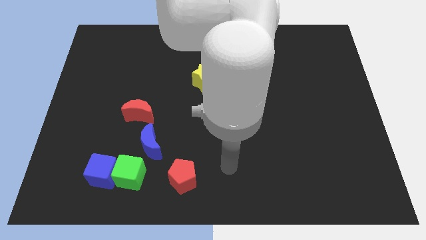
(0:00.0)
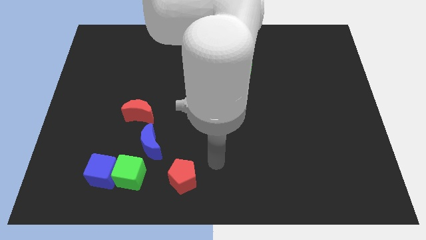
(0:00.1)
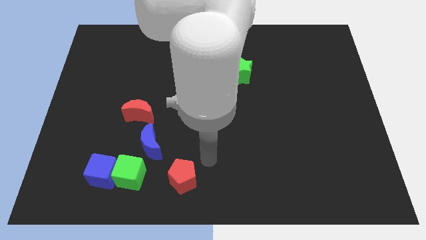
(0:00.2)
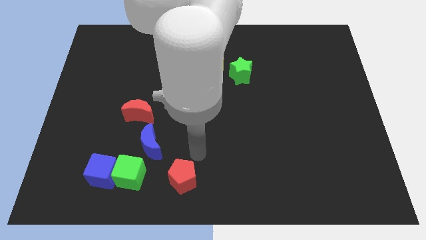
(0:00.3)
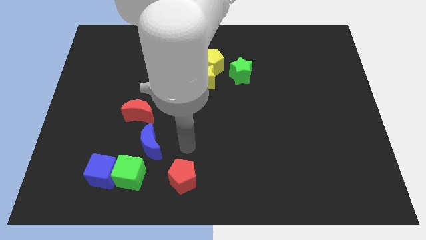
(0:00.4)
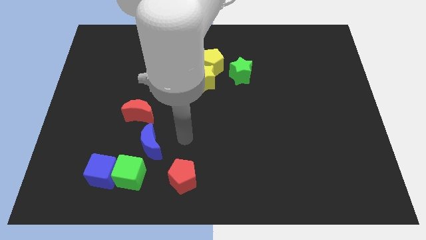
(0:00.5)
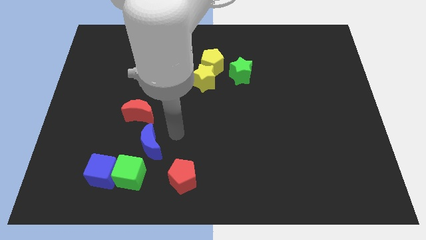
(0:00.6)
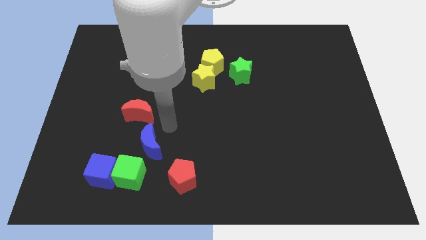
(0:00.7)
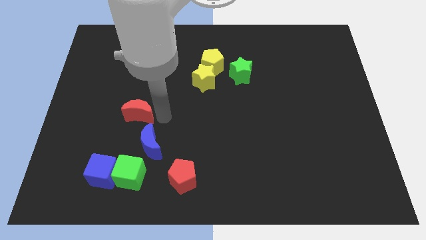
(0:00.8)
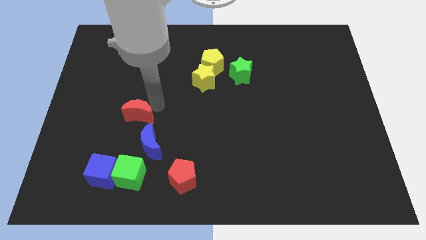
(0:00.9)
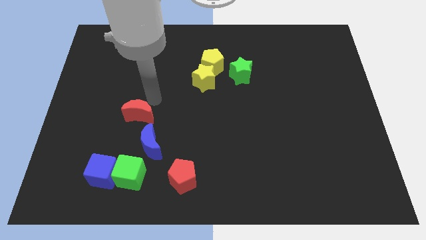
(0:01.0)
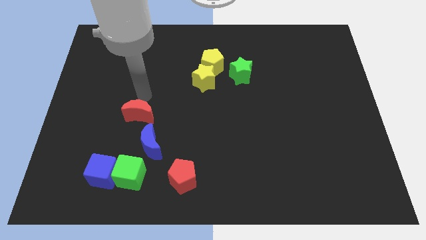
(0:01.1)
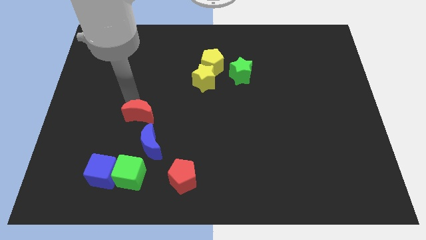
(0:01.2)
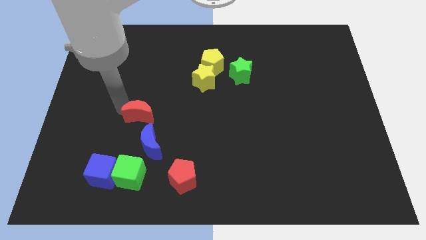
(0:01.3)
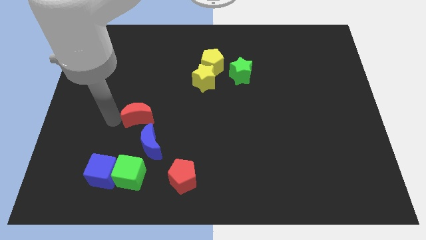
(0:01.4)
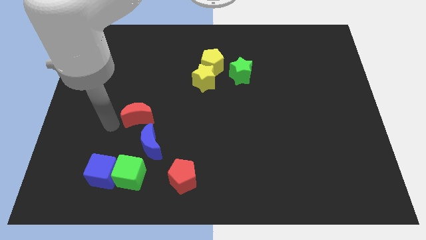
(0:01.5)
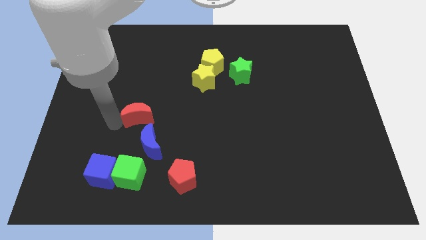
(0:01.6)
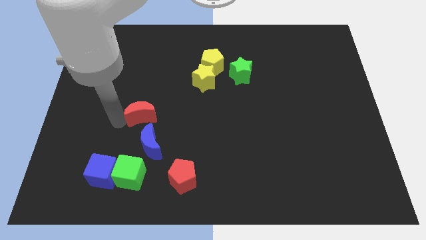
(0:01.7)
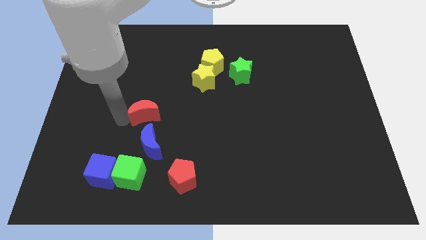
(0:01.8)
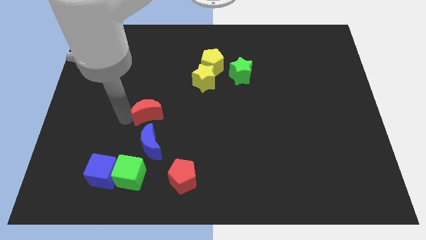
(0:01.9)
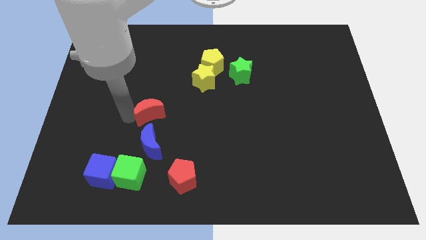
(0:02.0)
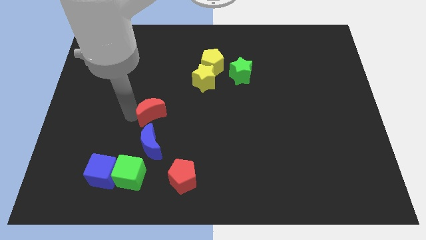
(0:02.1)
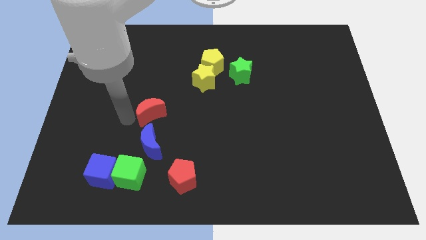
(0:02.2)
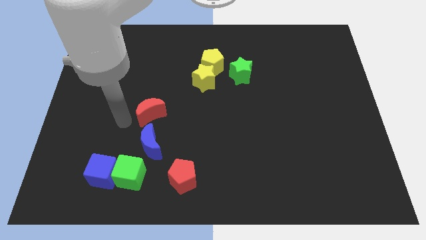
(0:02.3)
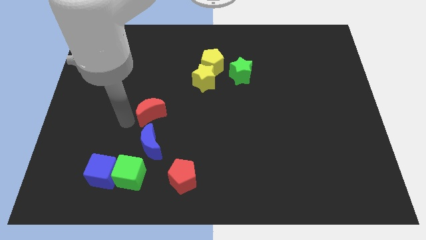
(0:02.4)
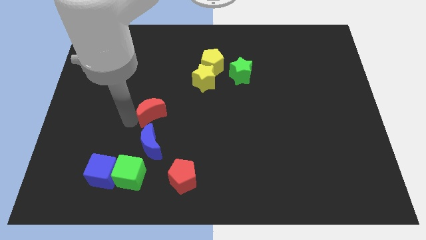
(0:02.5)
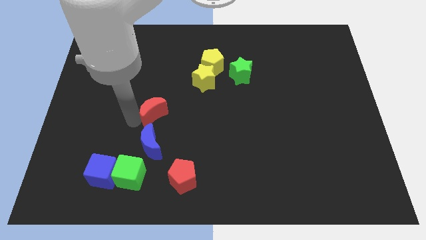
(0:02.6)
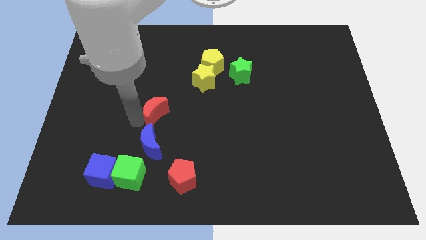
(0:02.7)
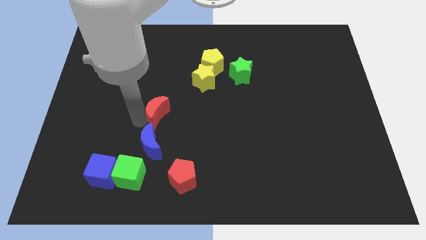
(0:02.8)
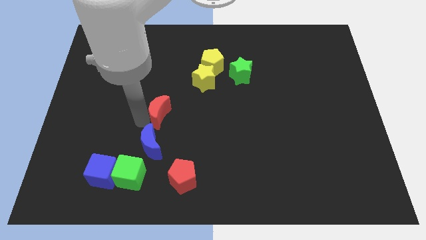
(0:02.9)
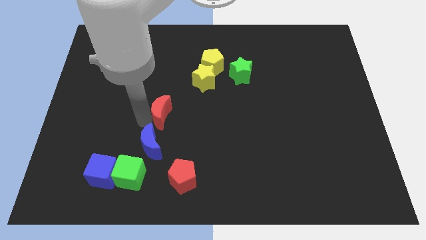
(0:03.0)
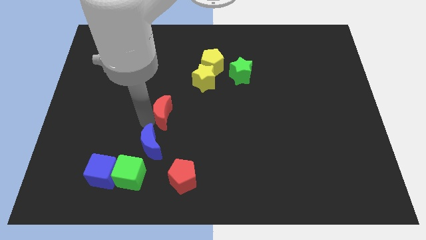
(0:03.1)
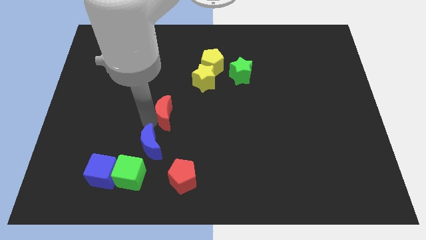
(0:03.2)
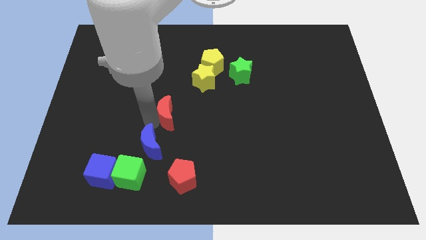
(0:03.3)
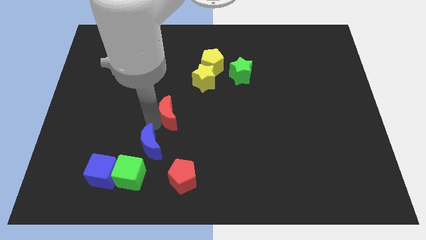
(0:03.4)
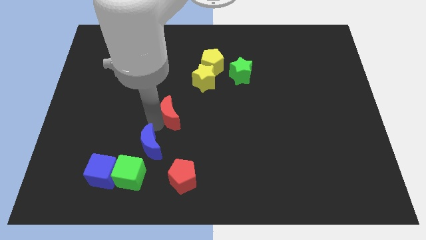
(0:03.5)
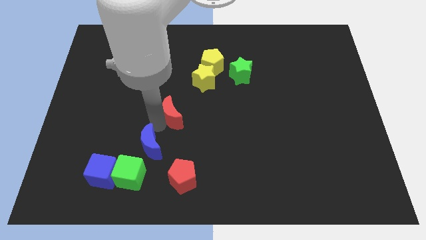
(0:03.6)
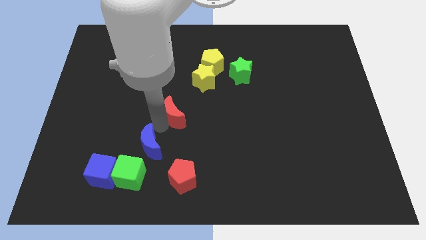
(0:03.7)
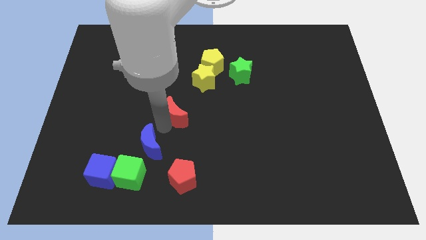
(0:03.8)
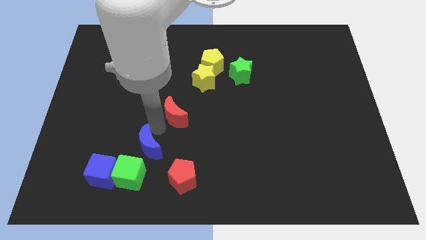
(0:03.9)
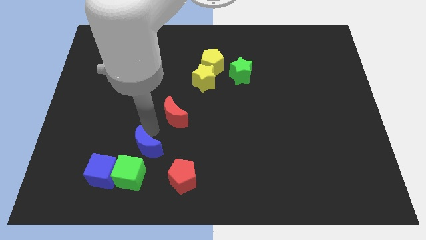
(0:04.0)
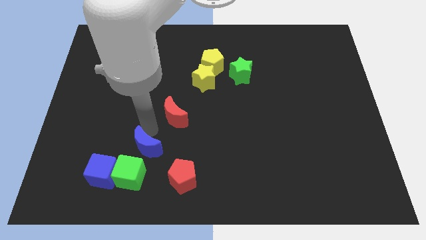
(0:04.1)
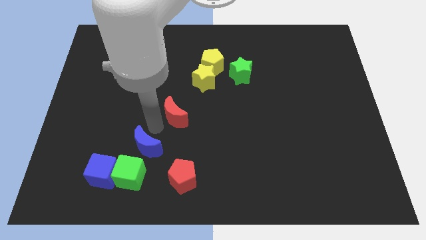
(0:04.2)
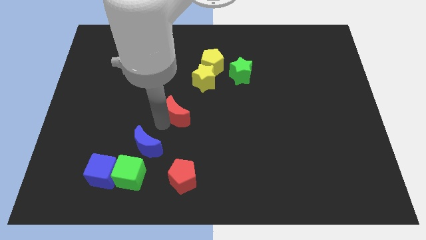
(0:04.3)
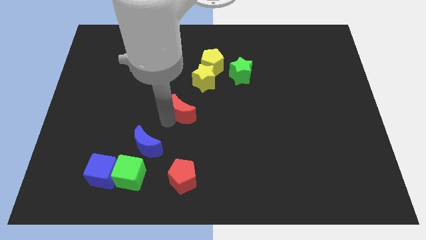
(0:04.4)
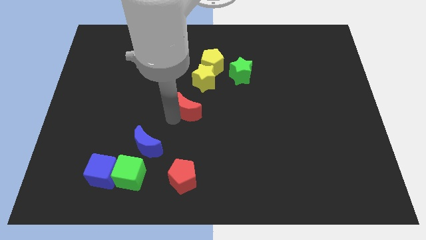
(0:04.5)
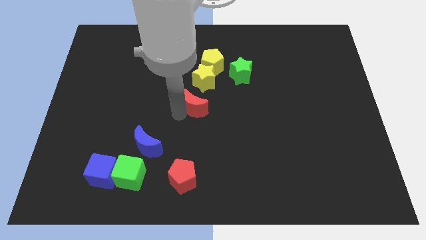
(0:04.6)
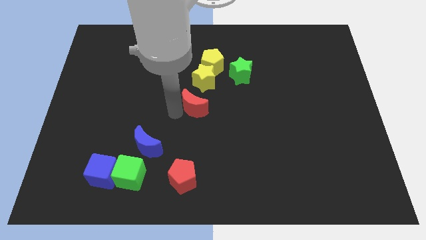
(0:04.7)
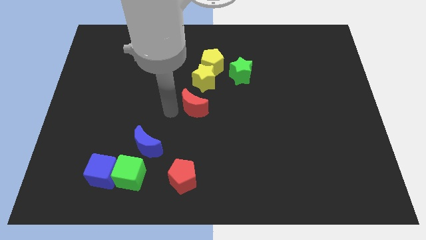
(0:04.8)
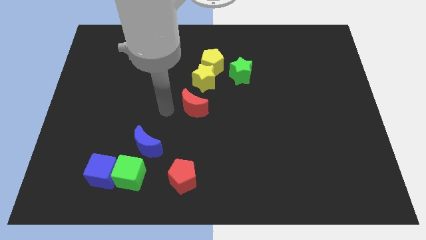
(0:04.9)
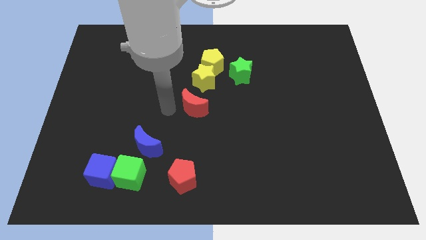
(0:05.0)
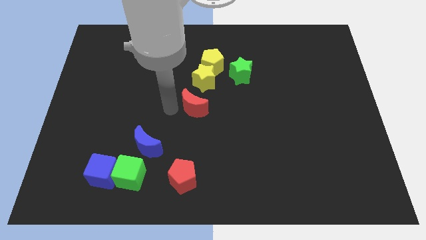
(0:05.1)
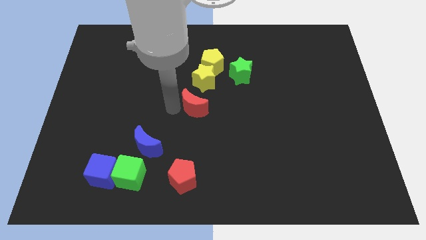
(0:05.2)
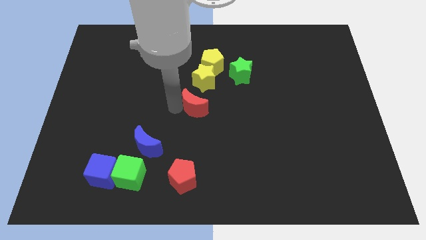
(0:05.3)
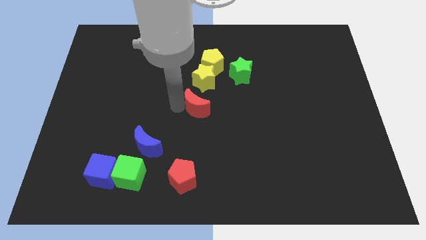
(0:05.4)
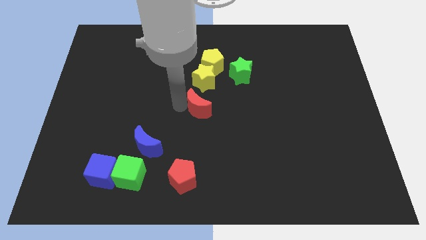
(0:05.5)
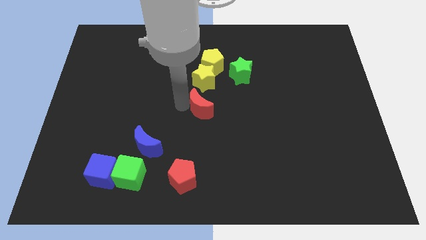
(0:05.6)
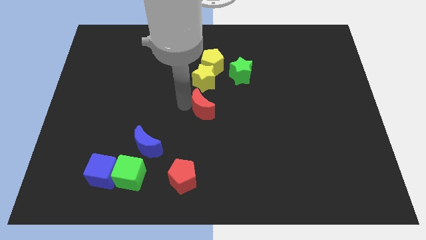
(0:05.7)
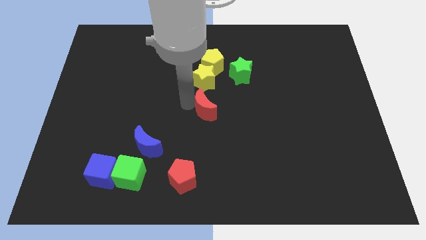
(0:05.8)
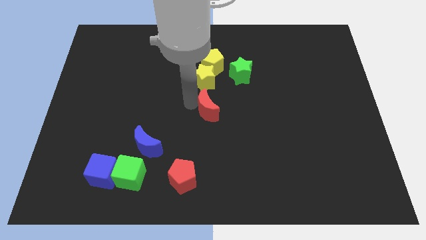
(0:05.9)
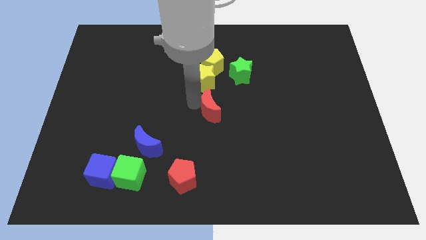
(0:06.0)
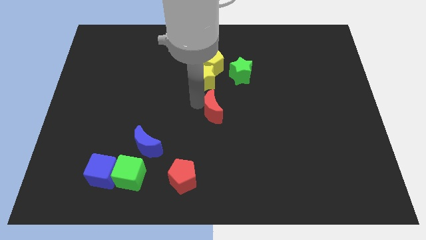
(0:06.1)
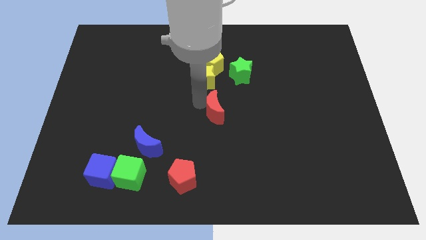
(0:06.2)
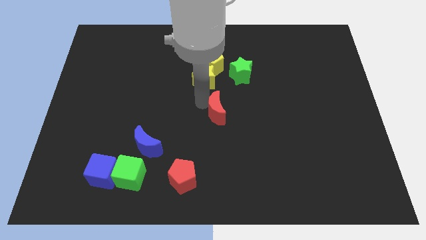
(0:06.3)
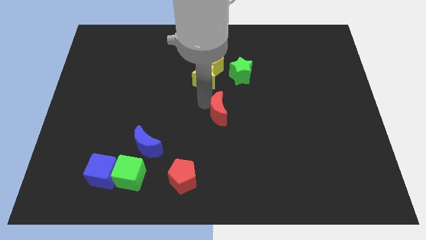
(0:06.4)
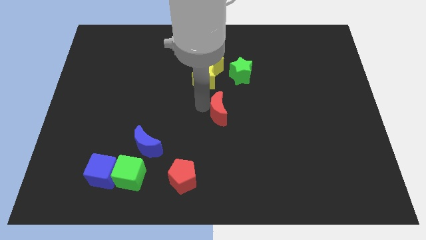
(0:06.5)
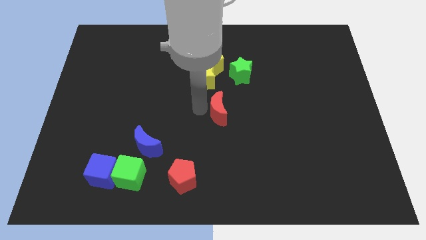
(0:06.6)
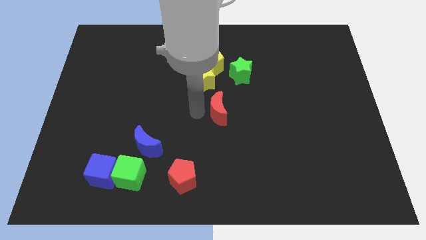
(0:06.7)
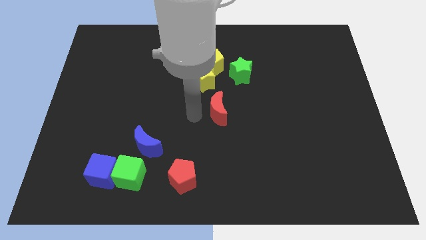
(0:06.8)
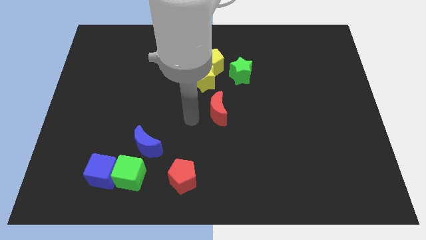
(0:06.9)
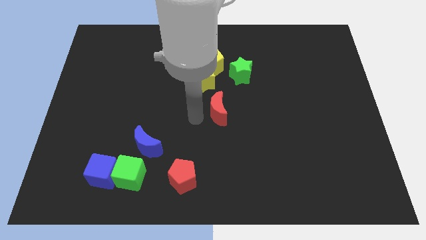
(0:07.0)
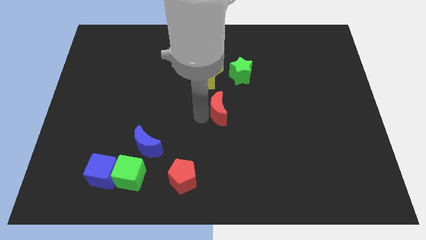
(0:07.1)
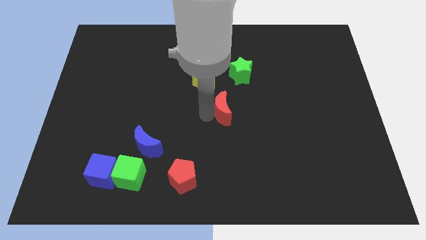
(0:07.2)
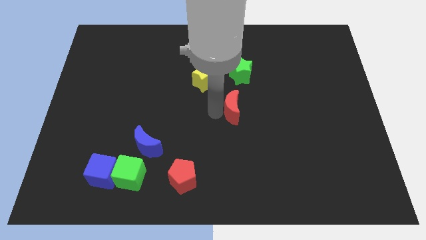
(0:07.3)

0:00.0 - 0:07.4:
slide the red moon right

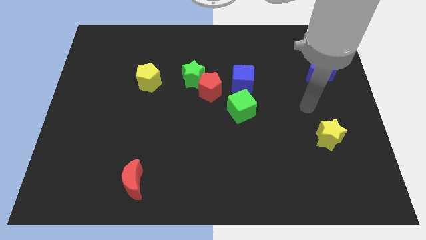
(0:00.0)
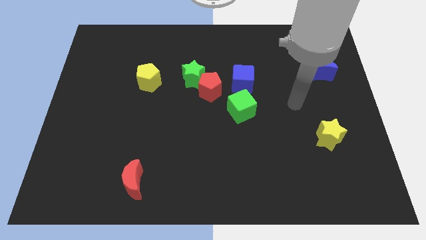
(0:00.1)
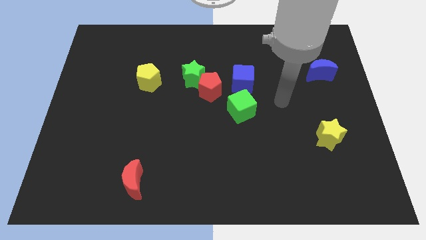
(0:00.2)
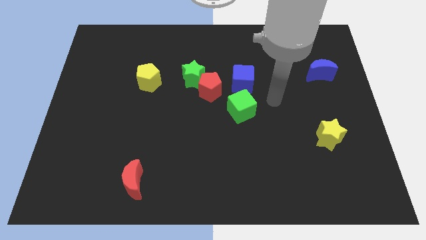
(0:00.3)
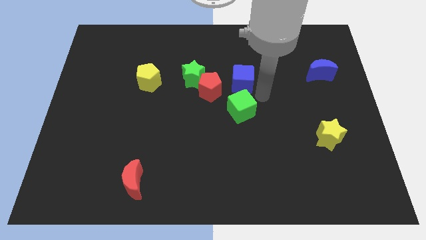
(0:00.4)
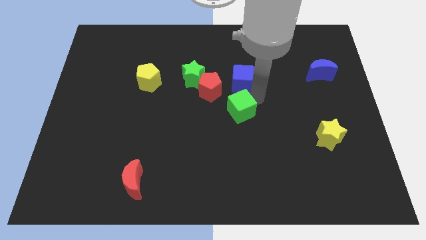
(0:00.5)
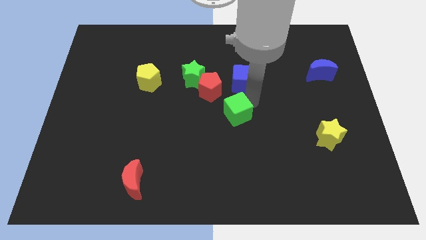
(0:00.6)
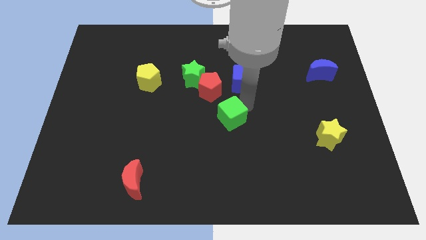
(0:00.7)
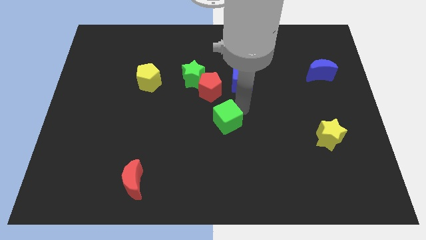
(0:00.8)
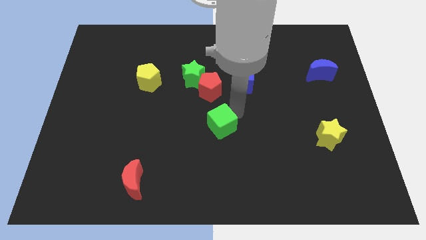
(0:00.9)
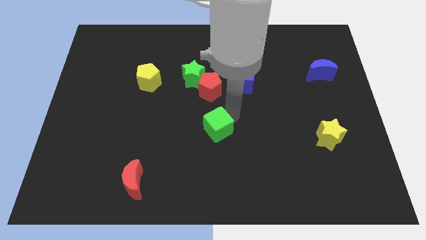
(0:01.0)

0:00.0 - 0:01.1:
slightly push the green cube diagonally downwards and left
